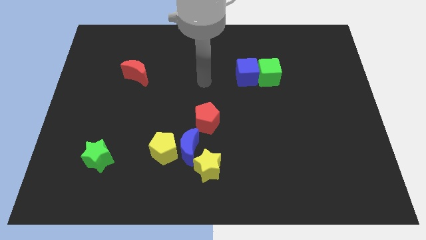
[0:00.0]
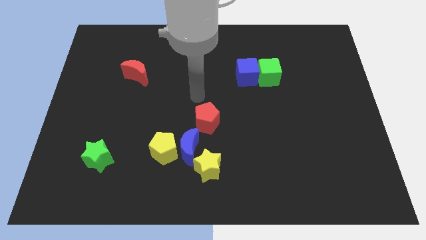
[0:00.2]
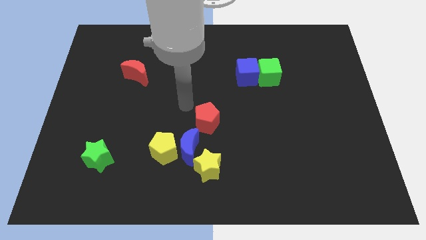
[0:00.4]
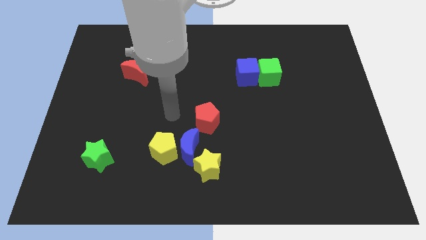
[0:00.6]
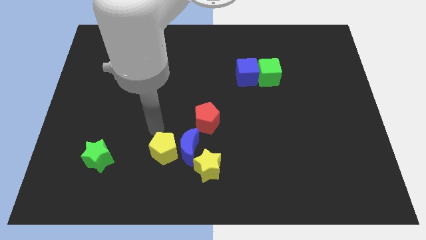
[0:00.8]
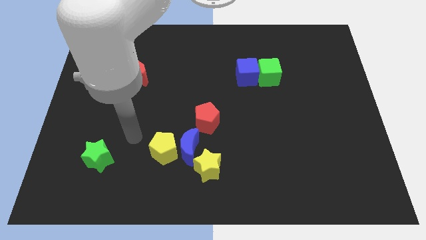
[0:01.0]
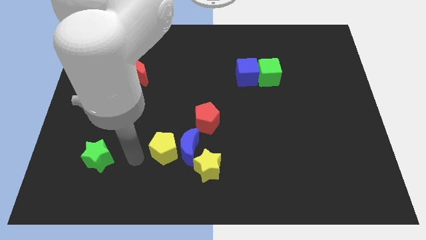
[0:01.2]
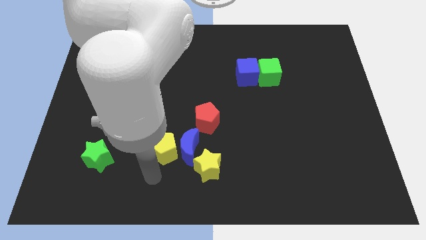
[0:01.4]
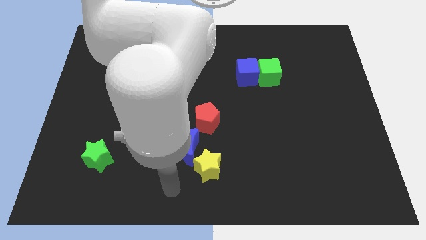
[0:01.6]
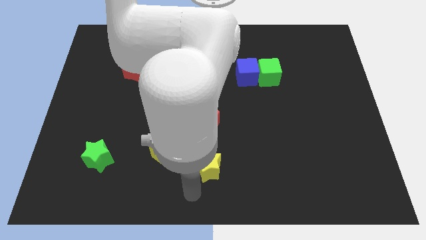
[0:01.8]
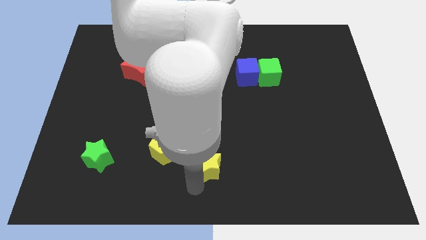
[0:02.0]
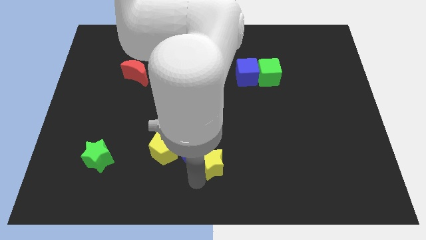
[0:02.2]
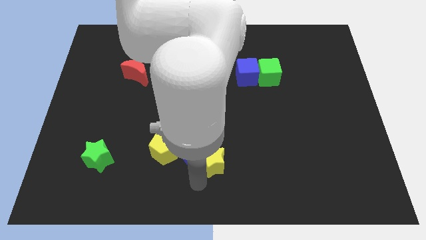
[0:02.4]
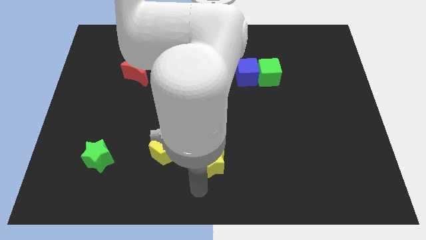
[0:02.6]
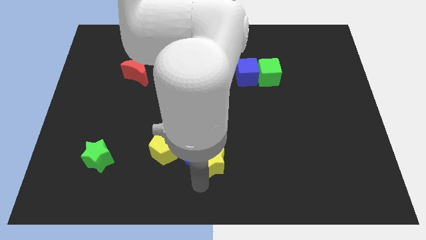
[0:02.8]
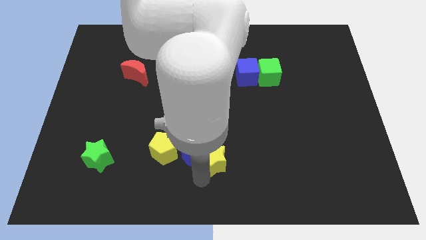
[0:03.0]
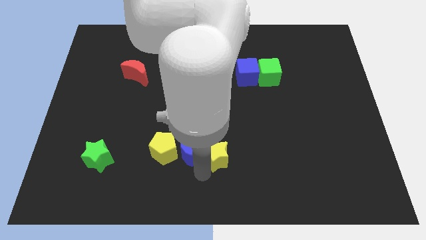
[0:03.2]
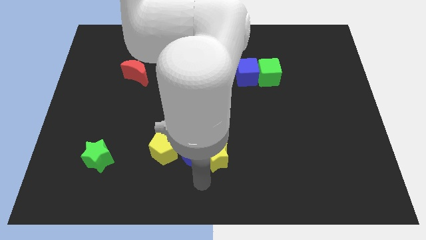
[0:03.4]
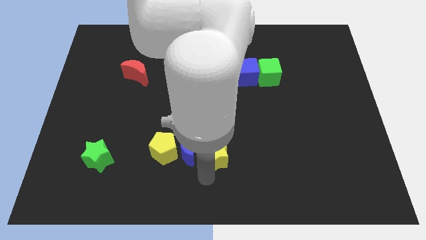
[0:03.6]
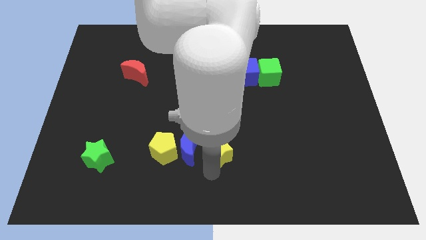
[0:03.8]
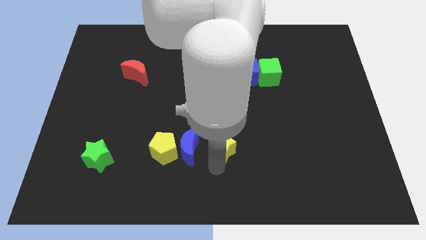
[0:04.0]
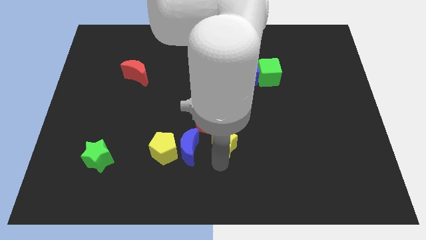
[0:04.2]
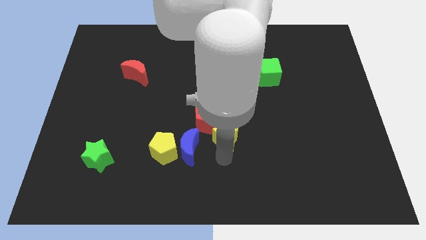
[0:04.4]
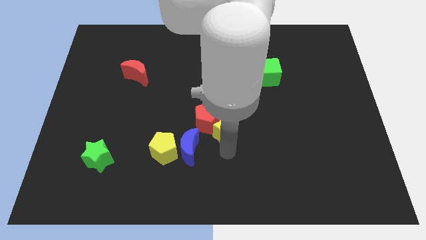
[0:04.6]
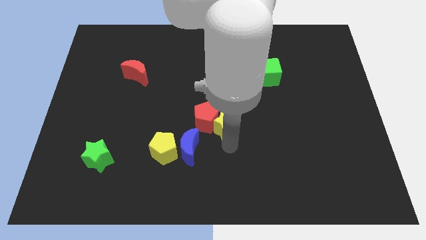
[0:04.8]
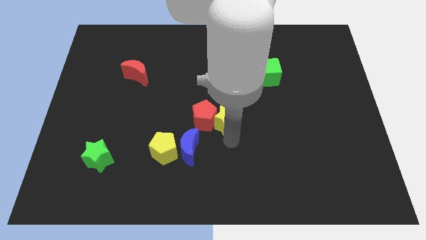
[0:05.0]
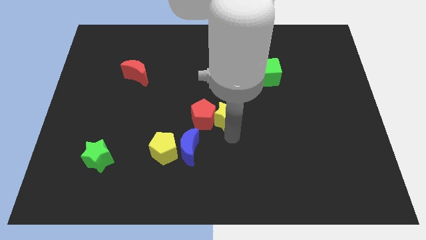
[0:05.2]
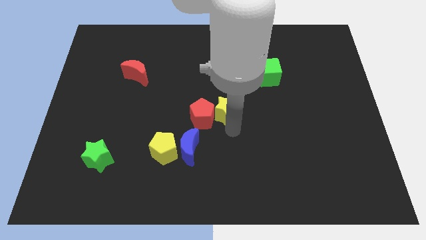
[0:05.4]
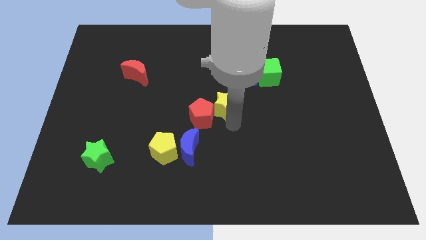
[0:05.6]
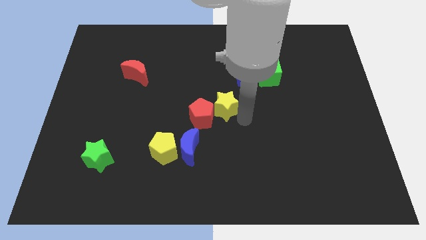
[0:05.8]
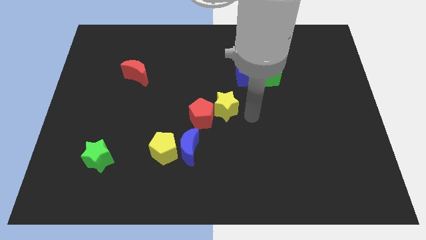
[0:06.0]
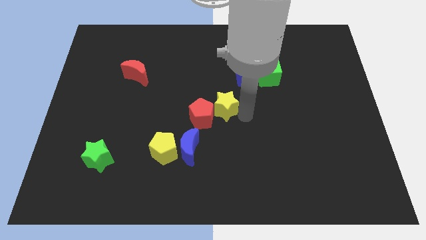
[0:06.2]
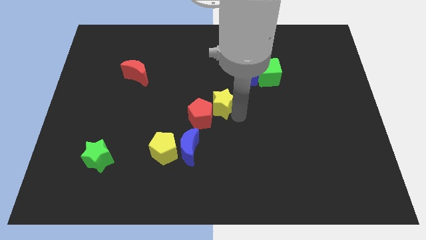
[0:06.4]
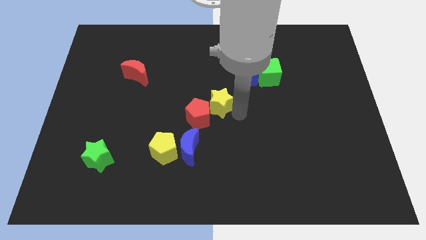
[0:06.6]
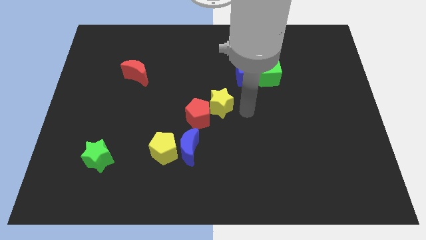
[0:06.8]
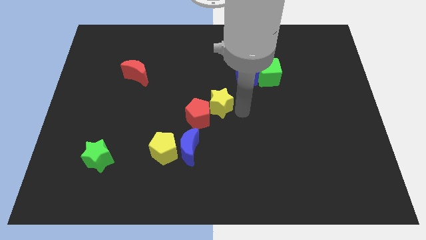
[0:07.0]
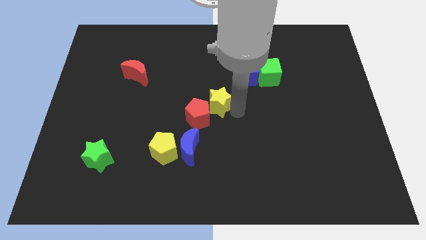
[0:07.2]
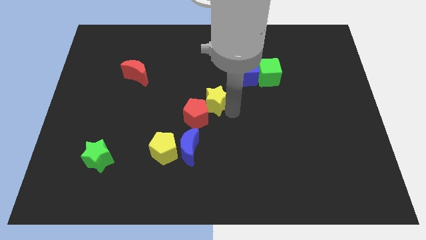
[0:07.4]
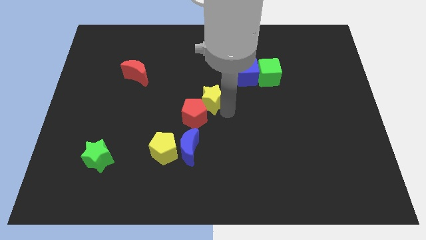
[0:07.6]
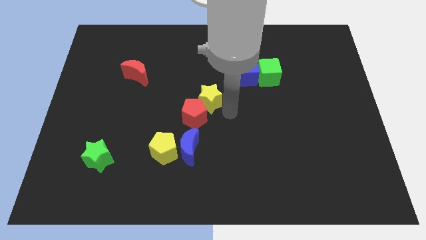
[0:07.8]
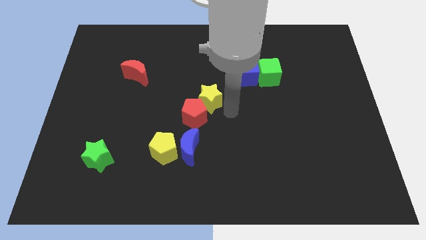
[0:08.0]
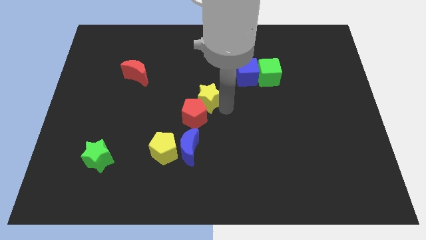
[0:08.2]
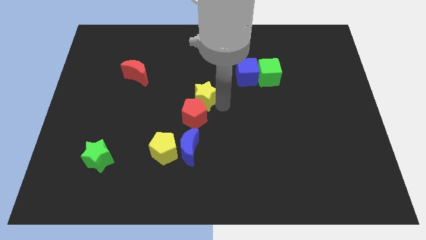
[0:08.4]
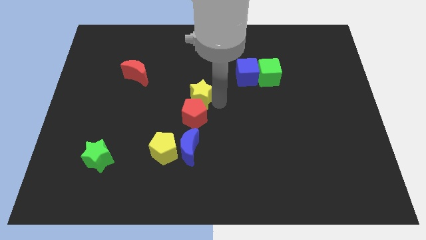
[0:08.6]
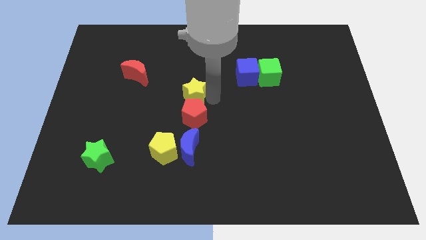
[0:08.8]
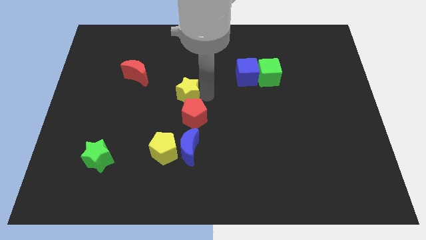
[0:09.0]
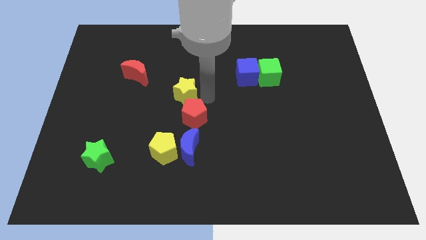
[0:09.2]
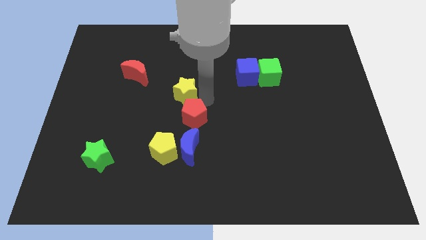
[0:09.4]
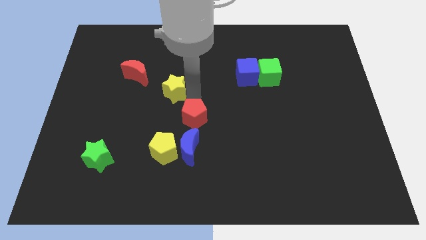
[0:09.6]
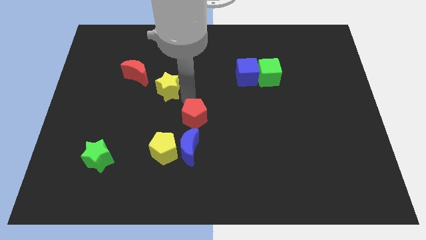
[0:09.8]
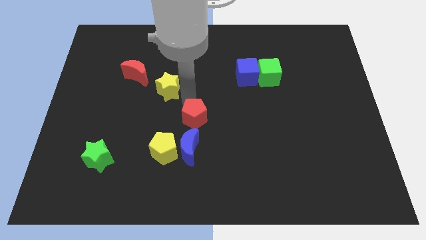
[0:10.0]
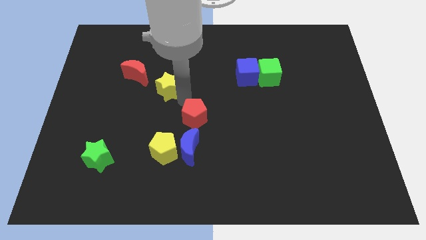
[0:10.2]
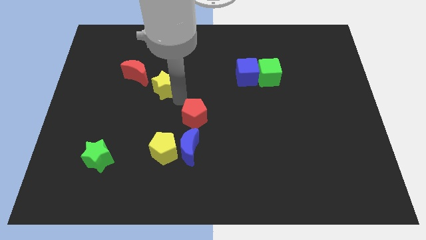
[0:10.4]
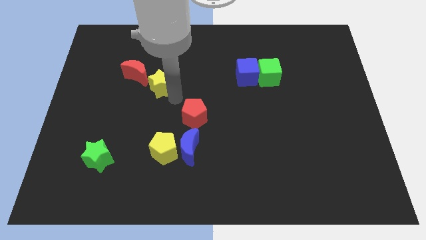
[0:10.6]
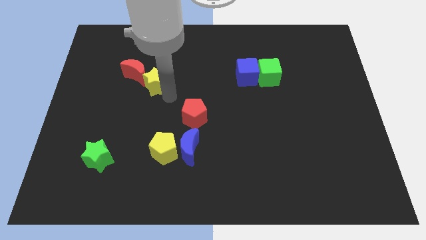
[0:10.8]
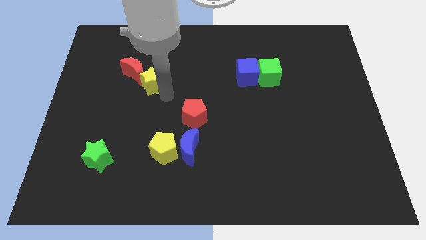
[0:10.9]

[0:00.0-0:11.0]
put the yellow star to the red moon

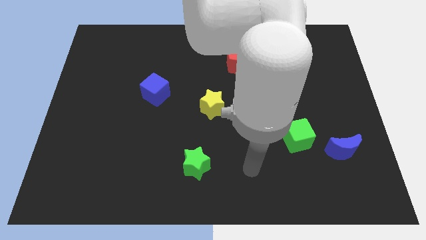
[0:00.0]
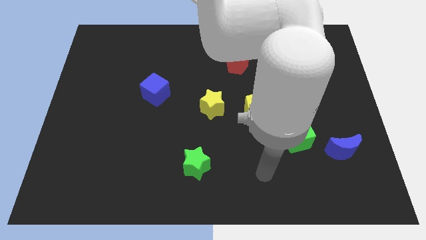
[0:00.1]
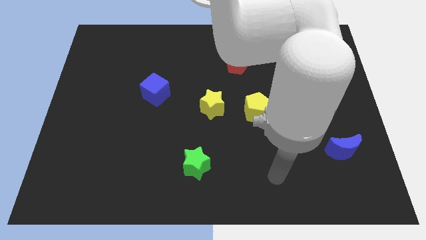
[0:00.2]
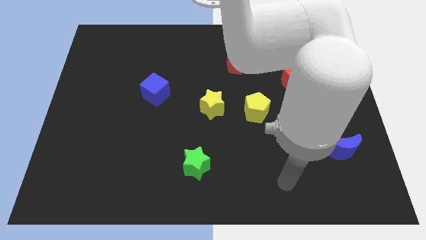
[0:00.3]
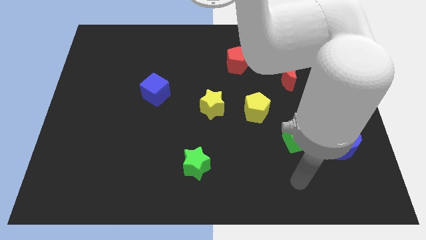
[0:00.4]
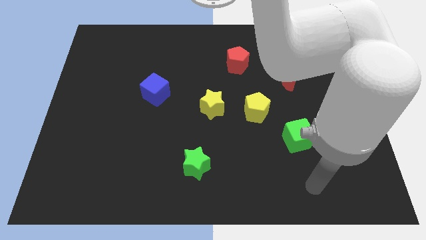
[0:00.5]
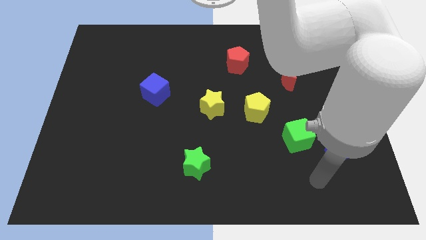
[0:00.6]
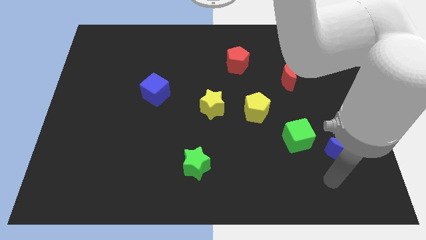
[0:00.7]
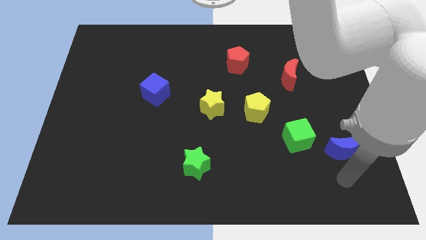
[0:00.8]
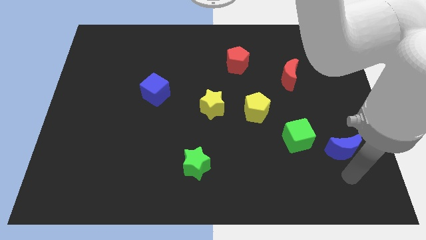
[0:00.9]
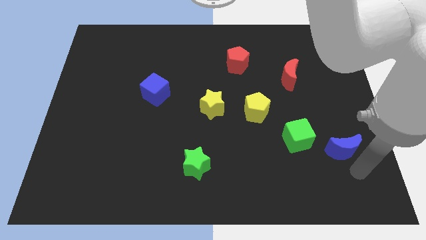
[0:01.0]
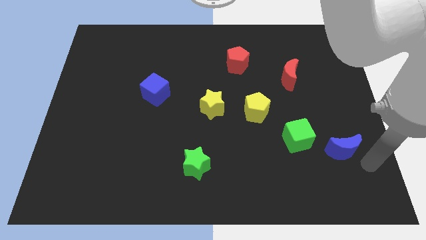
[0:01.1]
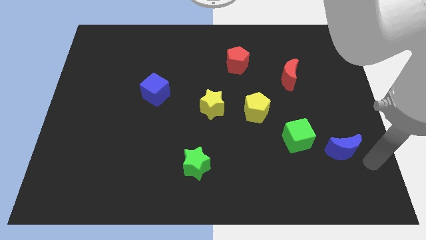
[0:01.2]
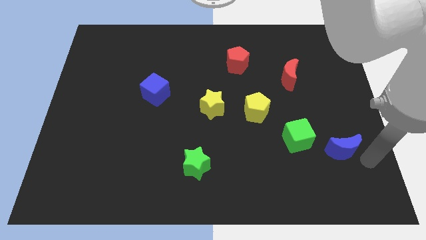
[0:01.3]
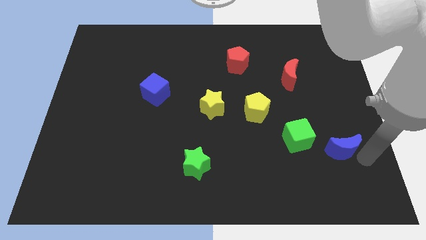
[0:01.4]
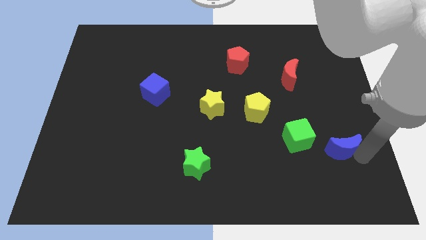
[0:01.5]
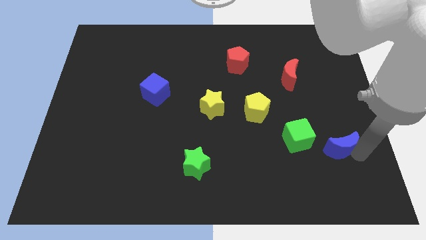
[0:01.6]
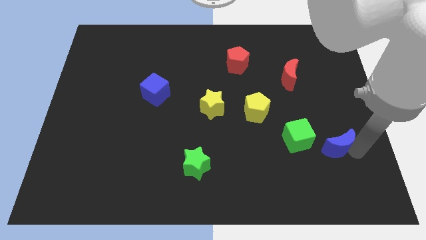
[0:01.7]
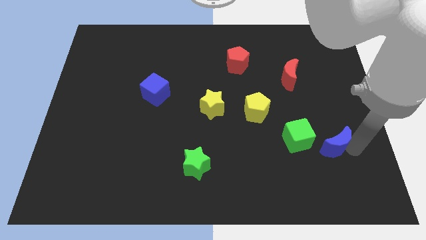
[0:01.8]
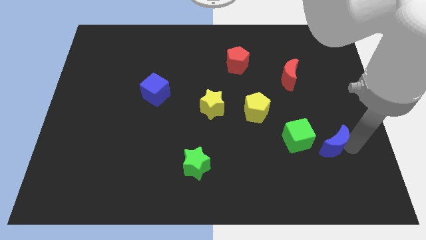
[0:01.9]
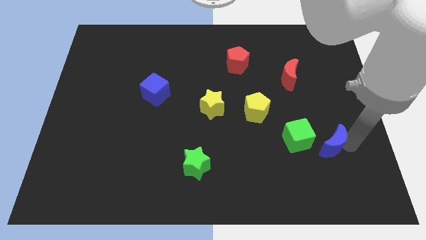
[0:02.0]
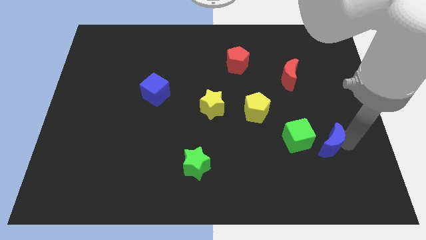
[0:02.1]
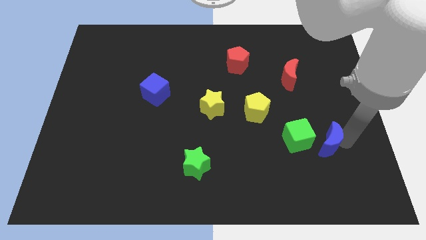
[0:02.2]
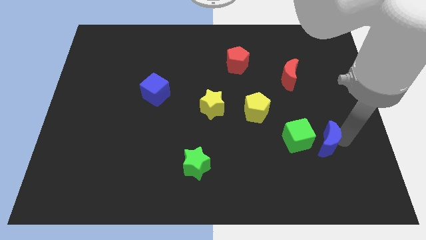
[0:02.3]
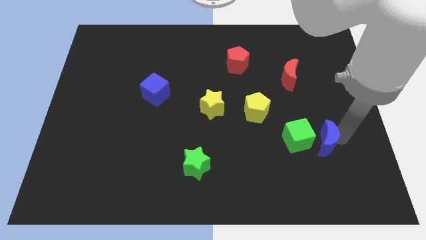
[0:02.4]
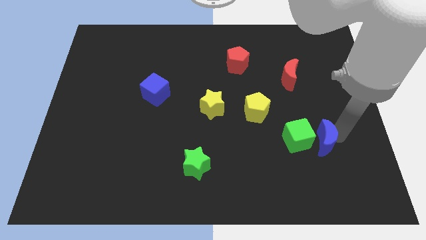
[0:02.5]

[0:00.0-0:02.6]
push the blue moon next to the green cube
